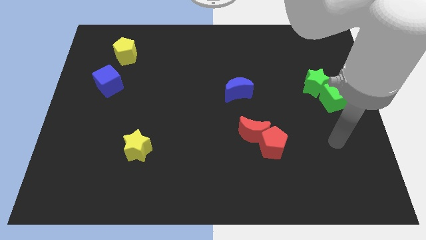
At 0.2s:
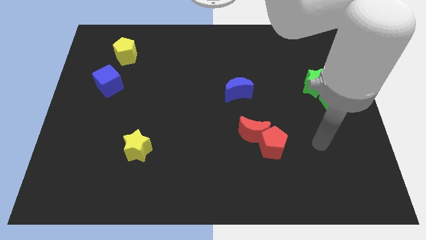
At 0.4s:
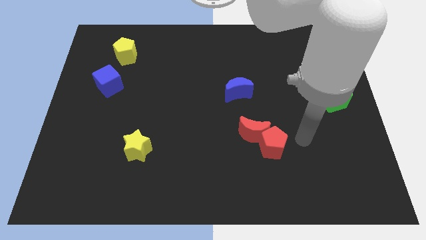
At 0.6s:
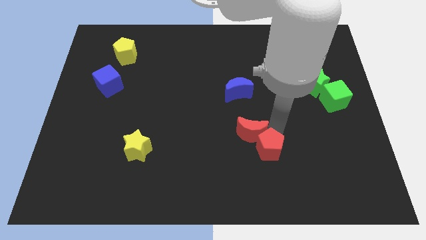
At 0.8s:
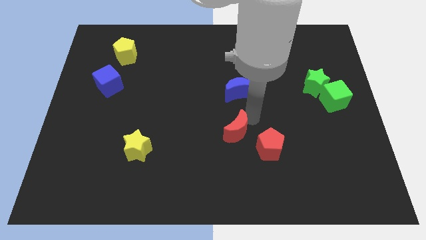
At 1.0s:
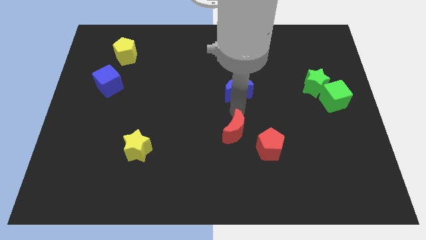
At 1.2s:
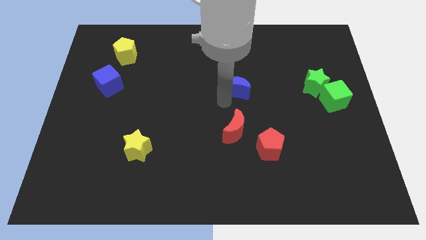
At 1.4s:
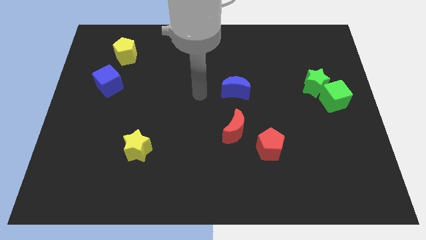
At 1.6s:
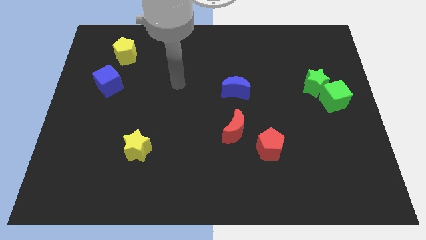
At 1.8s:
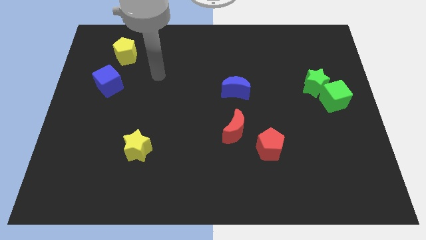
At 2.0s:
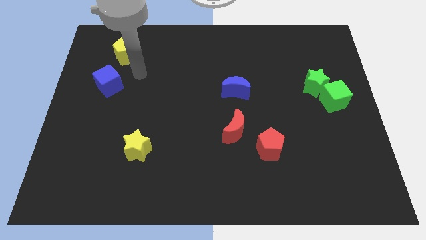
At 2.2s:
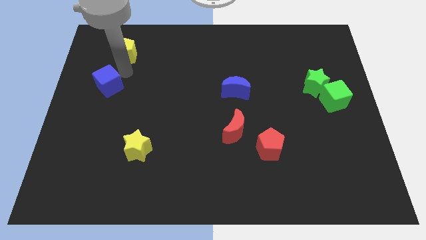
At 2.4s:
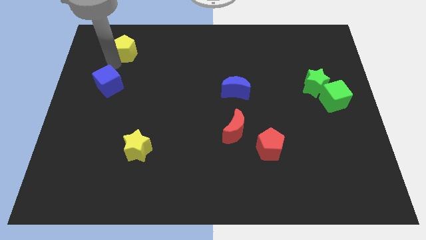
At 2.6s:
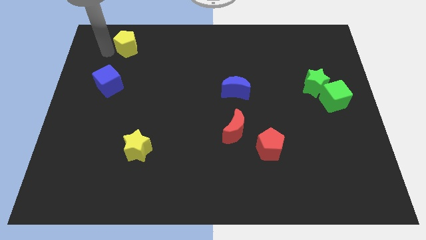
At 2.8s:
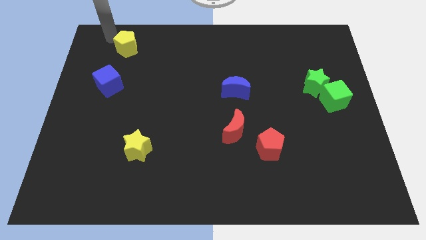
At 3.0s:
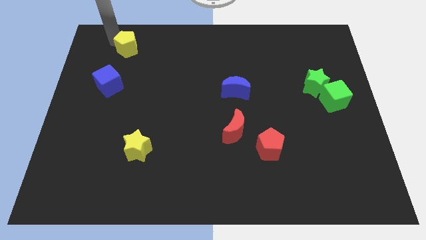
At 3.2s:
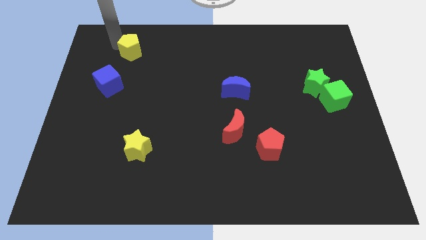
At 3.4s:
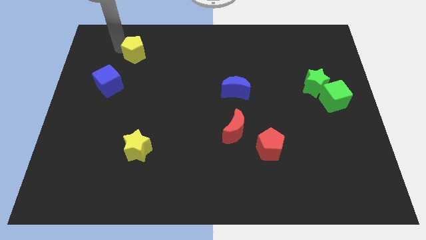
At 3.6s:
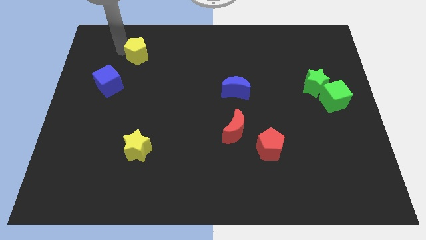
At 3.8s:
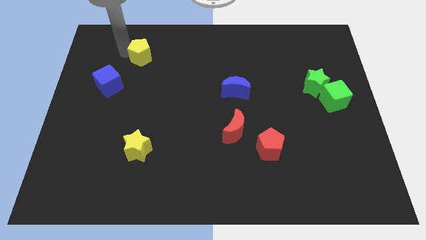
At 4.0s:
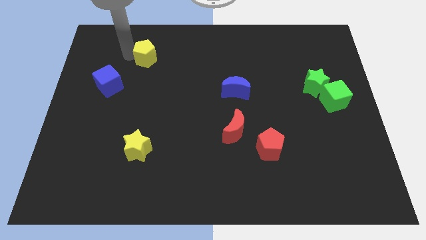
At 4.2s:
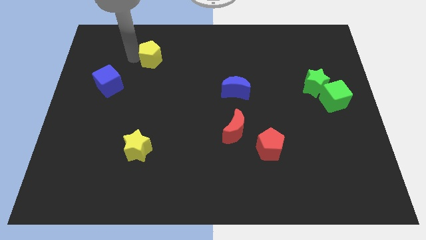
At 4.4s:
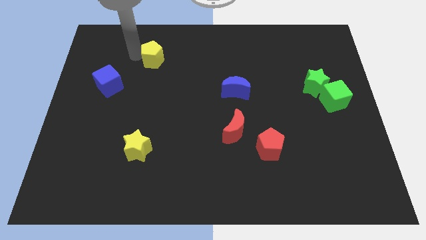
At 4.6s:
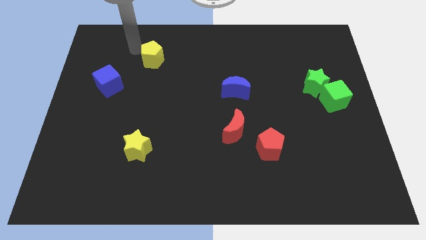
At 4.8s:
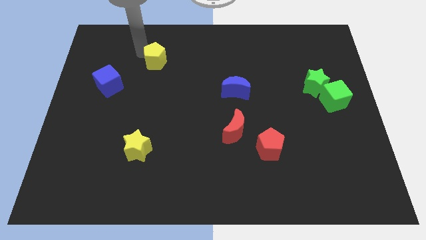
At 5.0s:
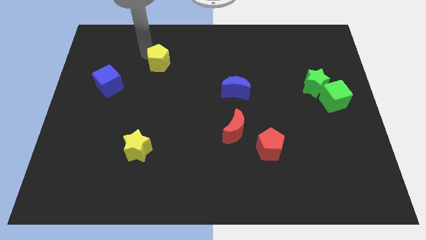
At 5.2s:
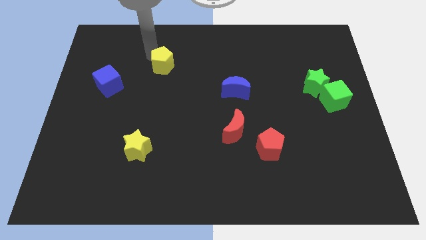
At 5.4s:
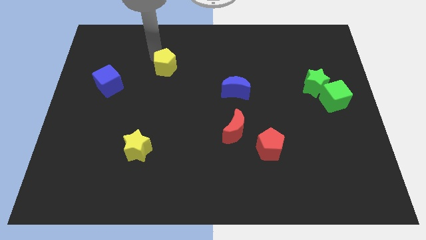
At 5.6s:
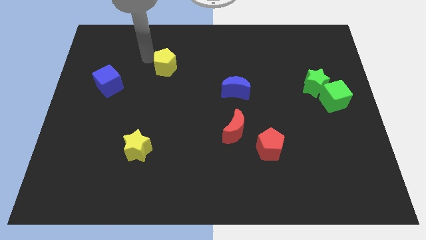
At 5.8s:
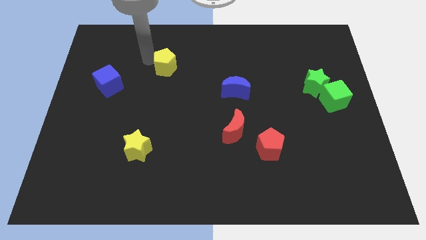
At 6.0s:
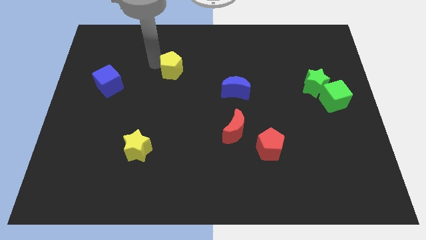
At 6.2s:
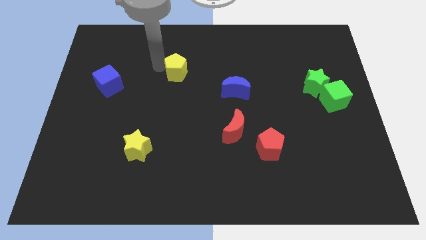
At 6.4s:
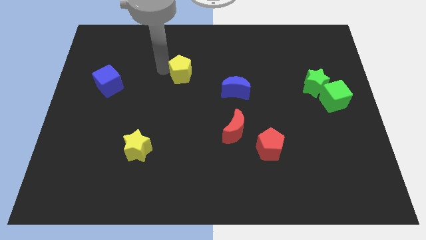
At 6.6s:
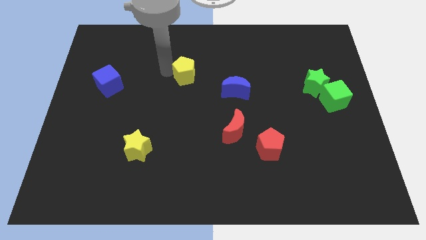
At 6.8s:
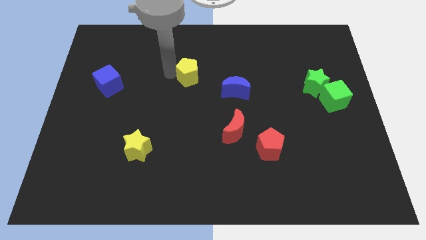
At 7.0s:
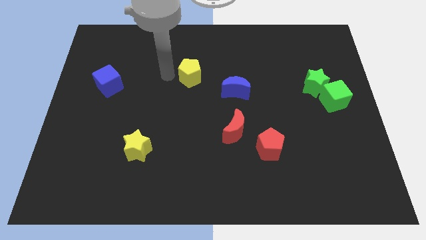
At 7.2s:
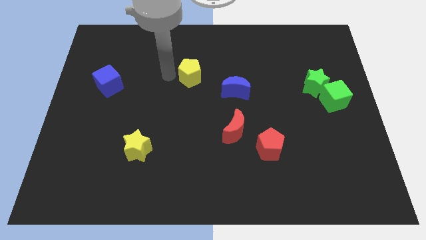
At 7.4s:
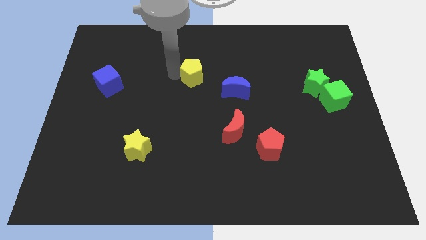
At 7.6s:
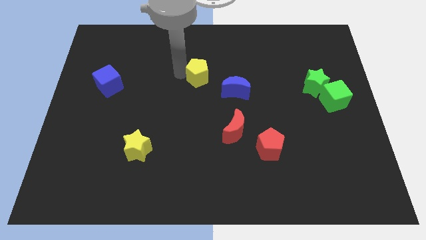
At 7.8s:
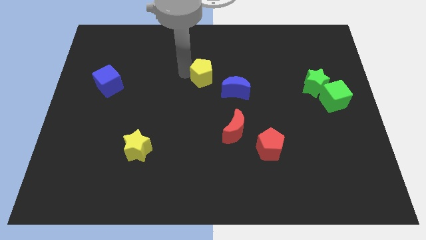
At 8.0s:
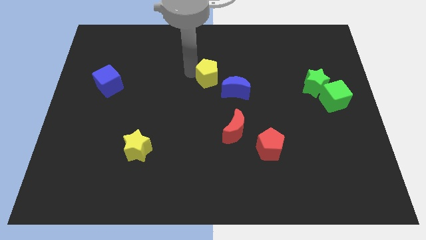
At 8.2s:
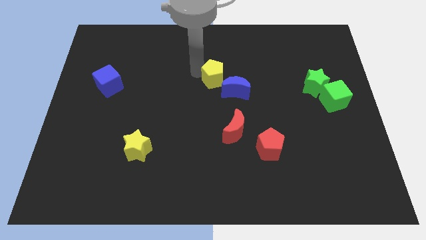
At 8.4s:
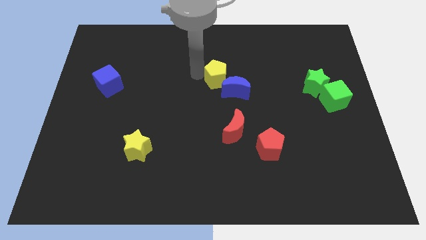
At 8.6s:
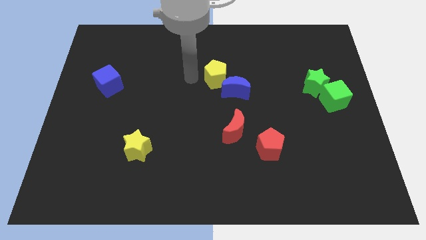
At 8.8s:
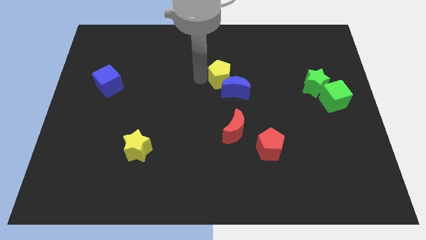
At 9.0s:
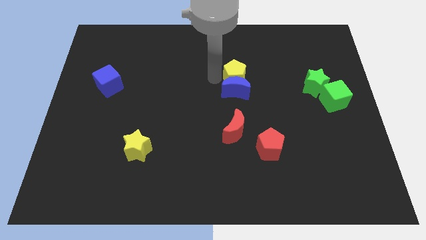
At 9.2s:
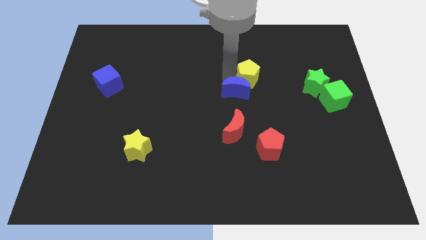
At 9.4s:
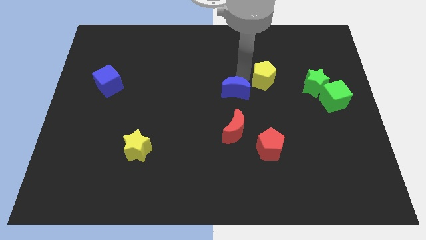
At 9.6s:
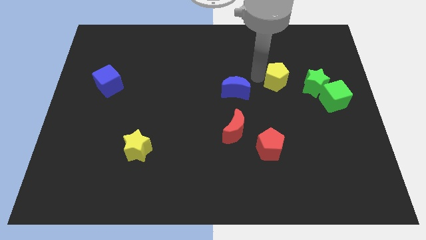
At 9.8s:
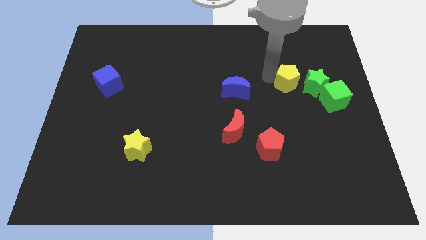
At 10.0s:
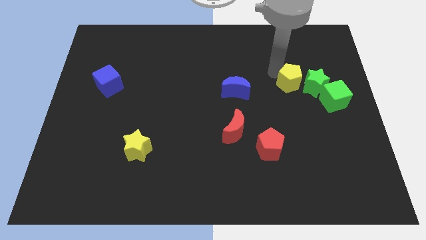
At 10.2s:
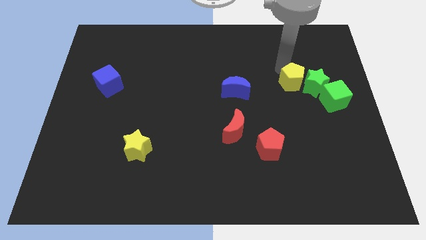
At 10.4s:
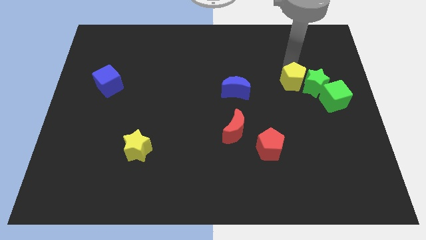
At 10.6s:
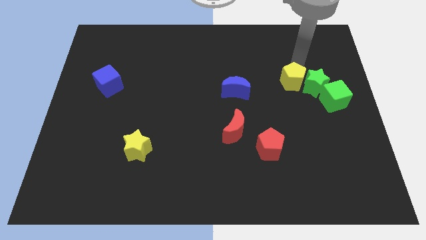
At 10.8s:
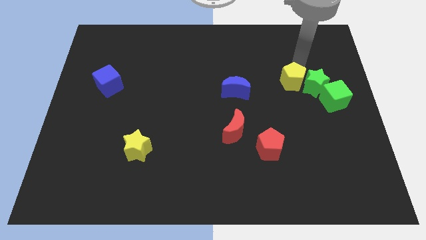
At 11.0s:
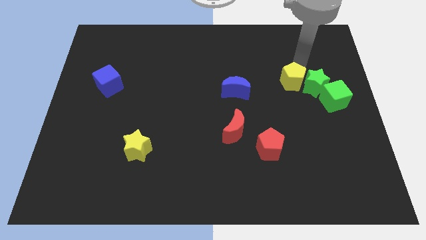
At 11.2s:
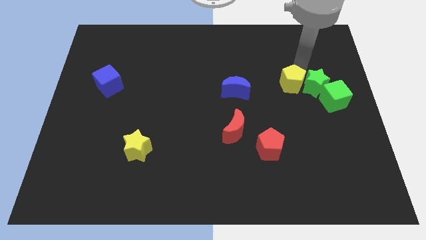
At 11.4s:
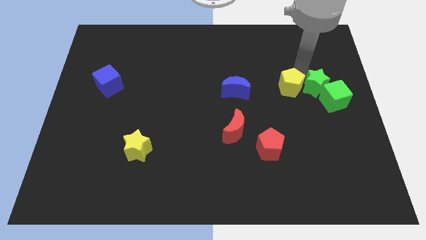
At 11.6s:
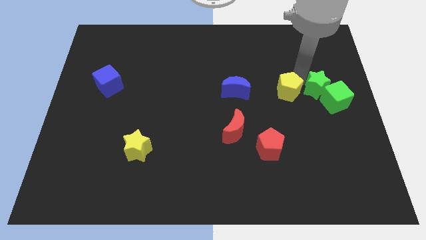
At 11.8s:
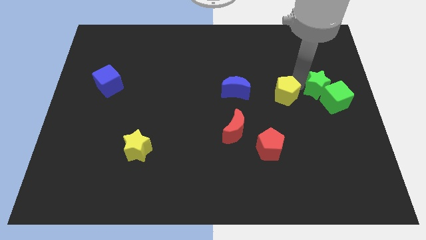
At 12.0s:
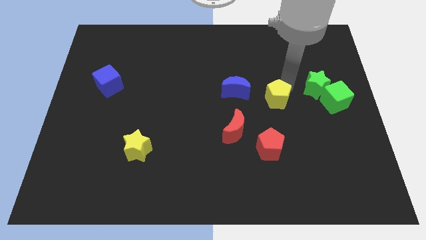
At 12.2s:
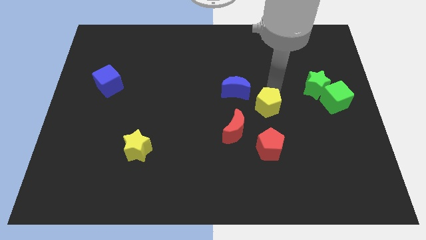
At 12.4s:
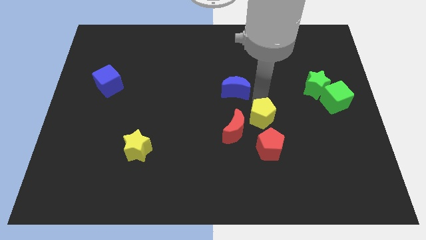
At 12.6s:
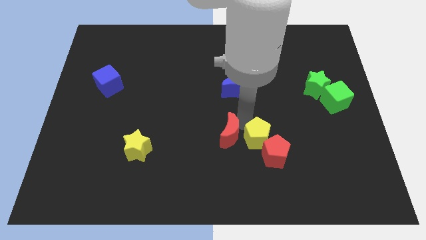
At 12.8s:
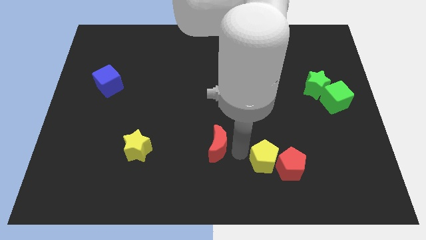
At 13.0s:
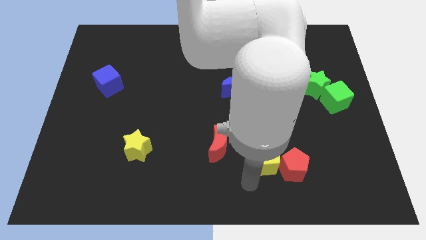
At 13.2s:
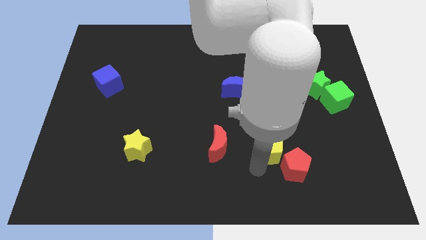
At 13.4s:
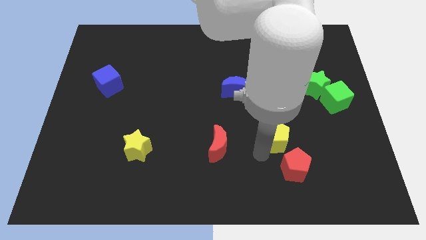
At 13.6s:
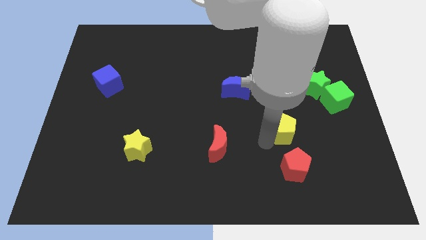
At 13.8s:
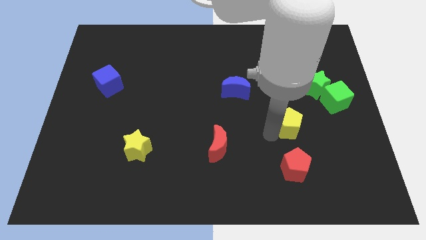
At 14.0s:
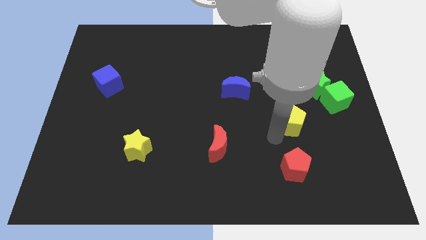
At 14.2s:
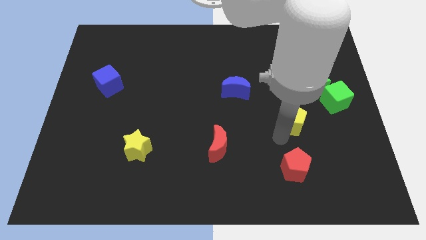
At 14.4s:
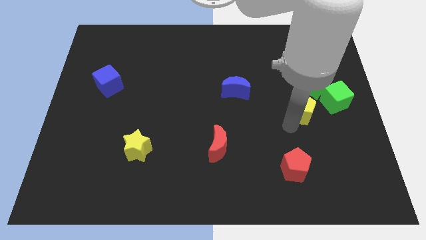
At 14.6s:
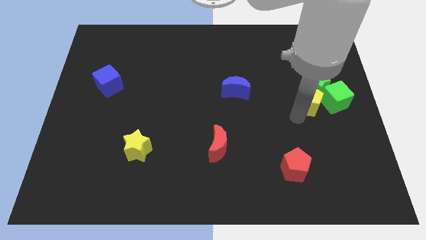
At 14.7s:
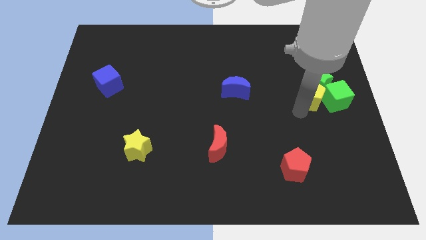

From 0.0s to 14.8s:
put the yellow pentagon towards the green cube
